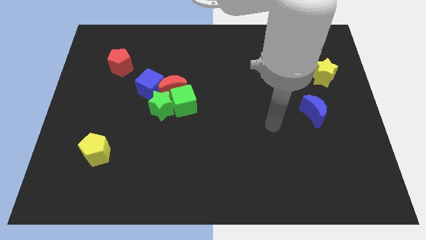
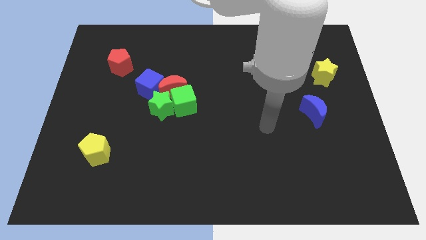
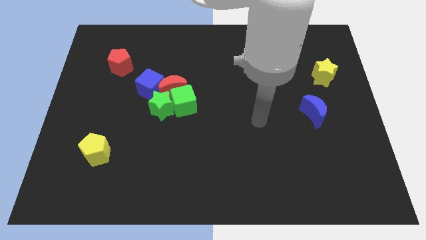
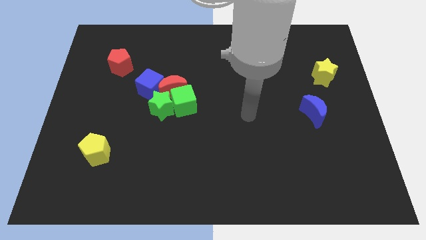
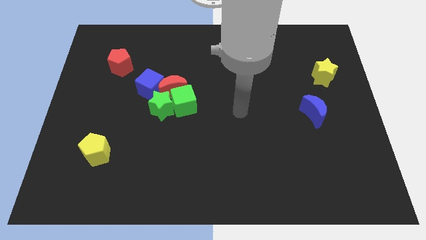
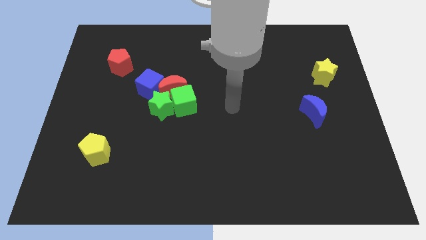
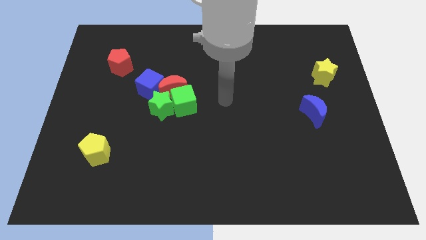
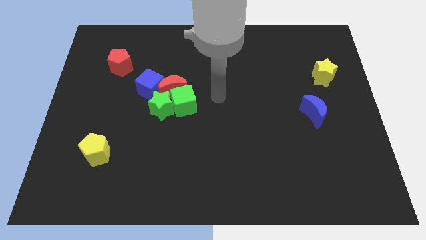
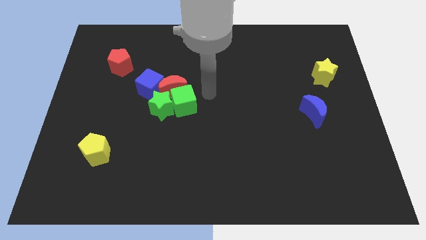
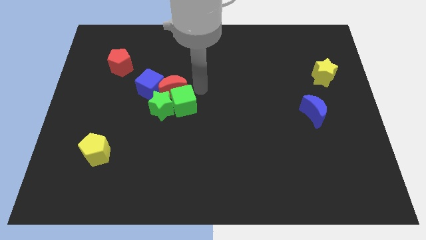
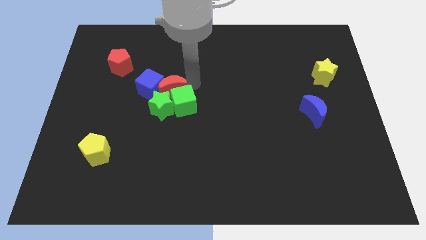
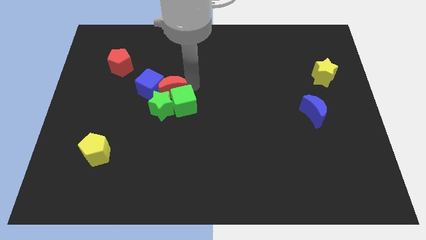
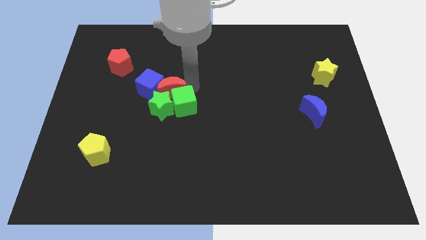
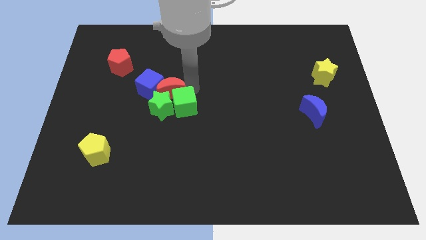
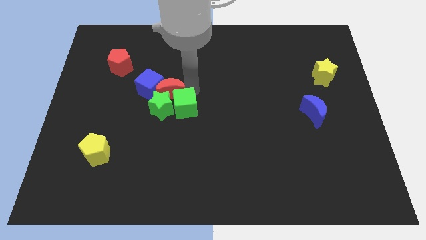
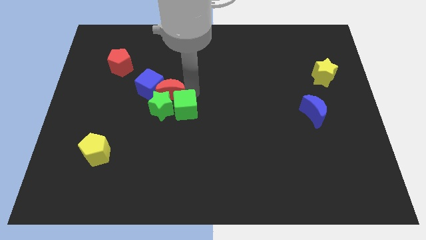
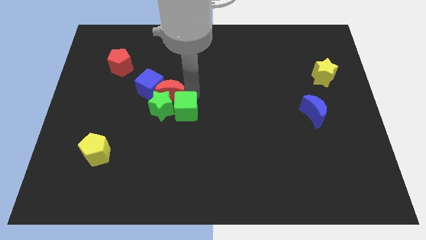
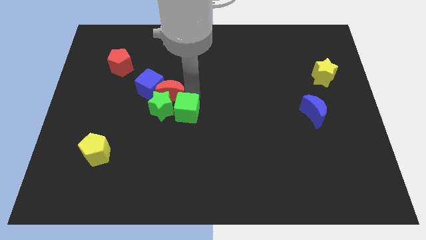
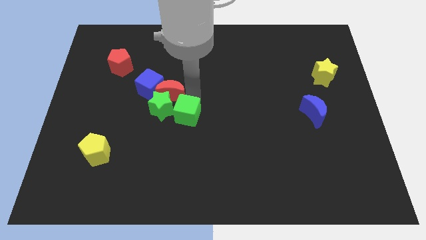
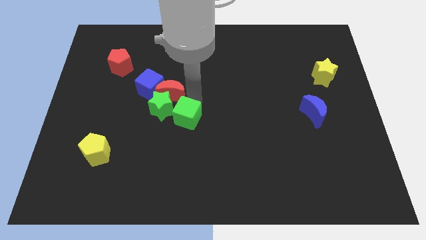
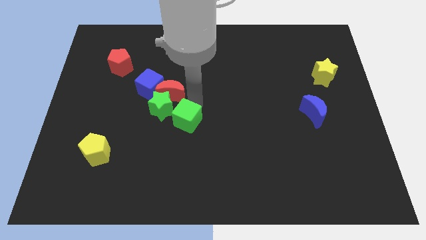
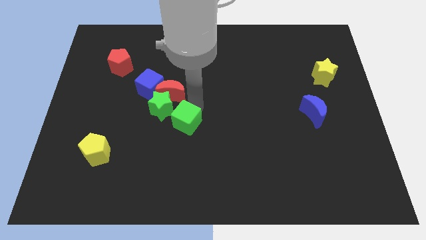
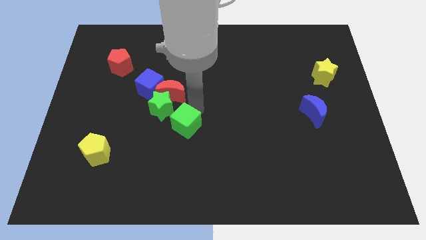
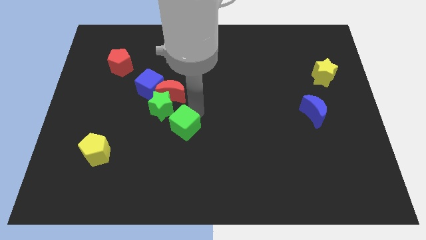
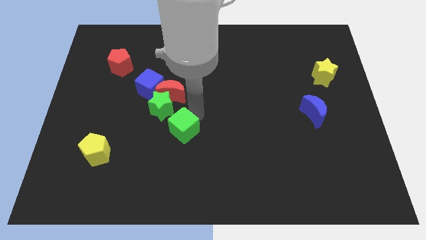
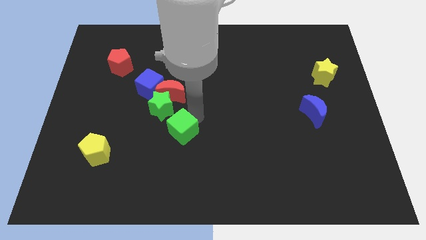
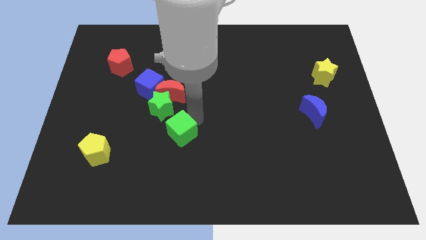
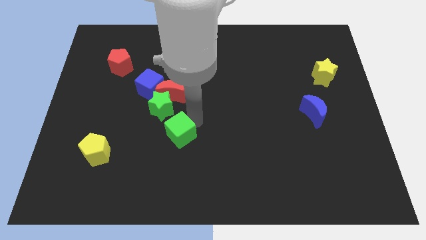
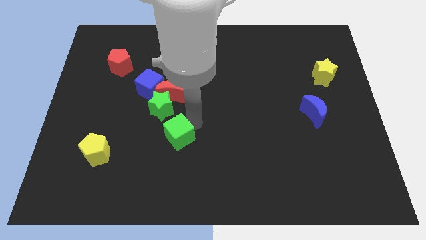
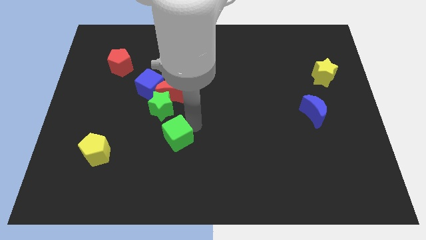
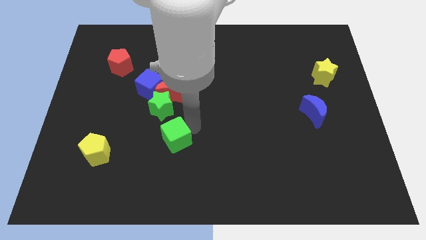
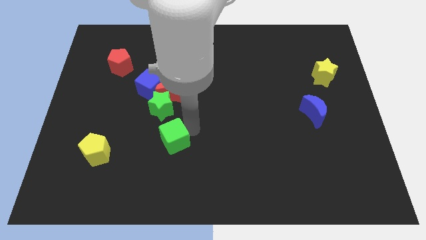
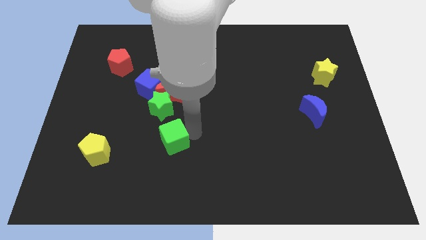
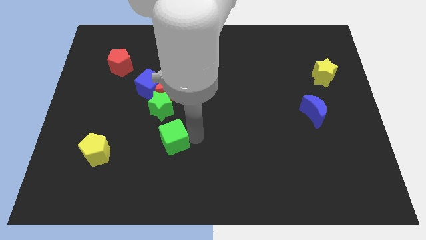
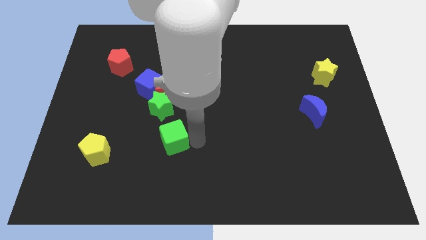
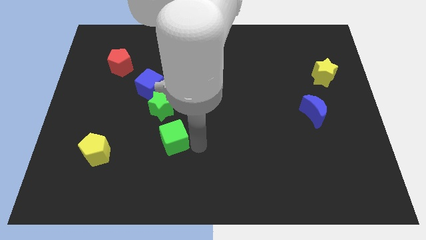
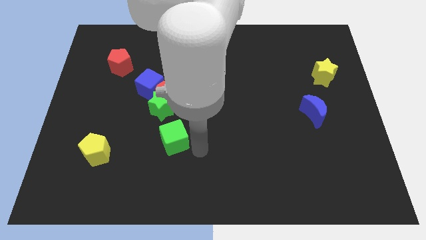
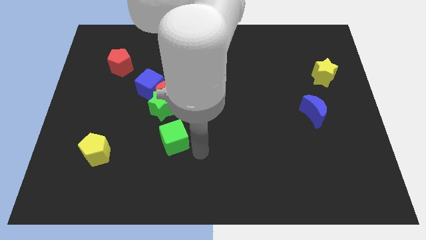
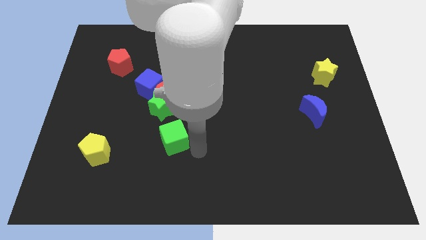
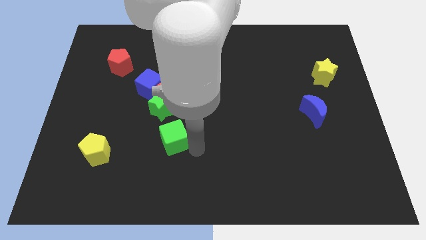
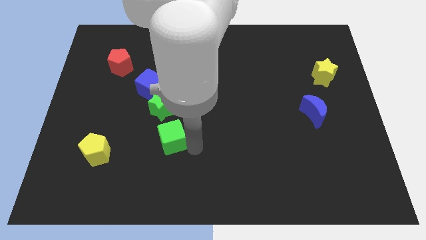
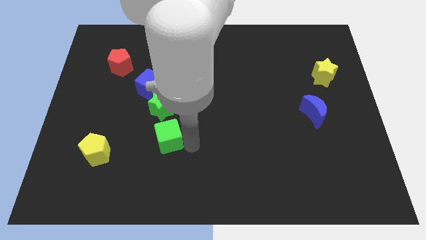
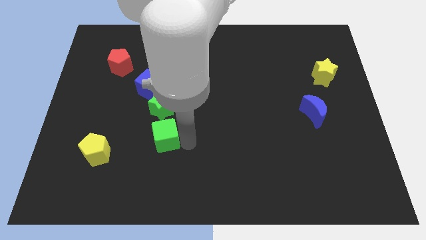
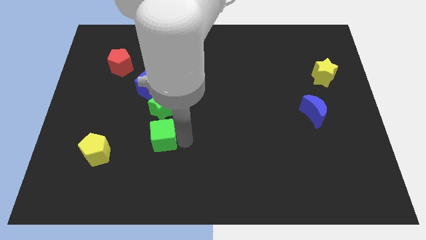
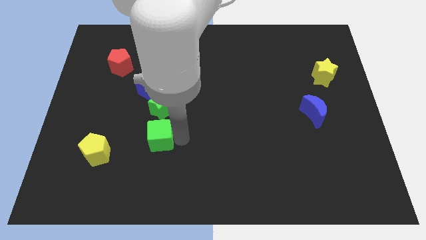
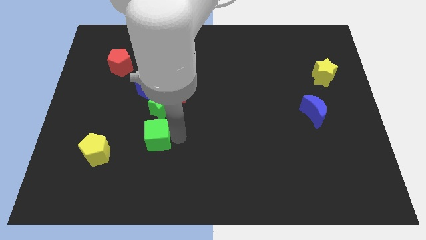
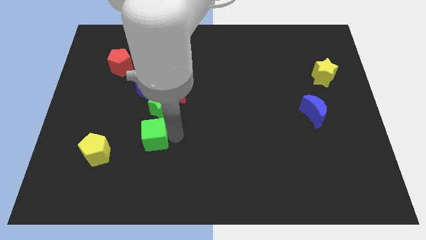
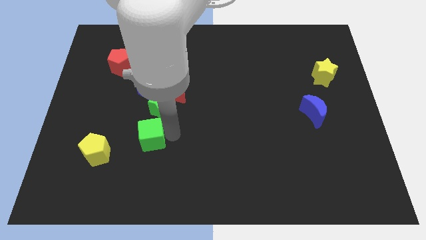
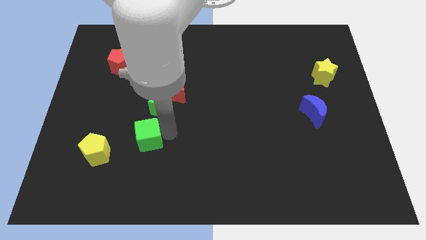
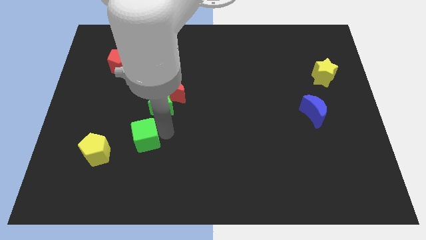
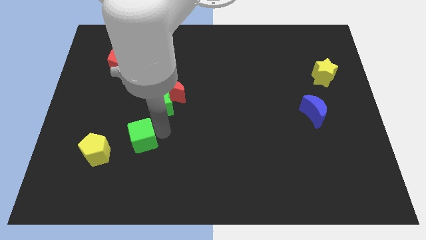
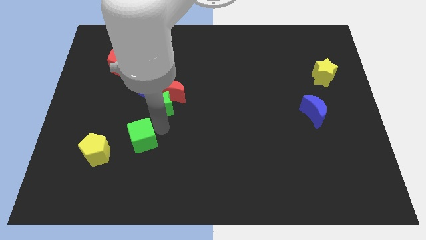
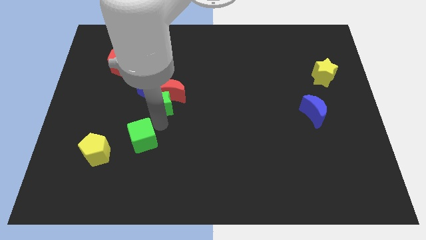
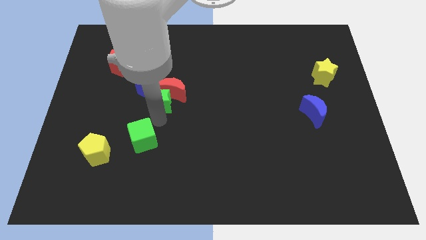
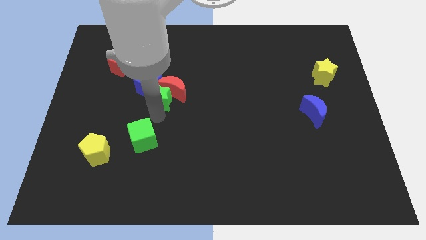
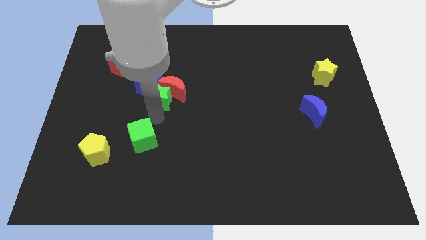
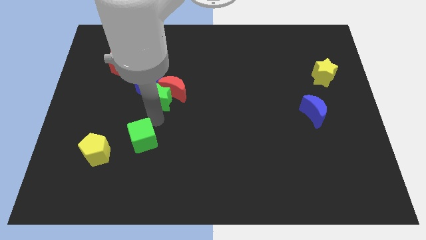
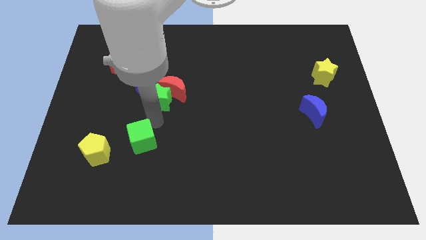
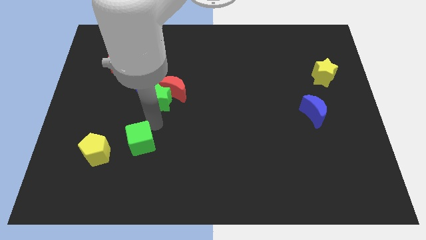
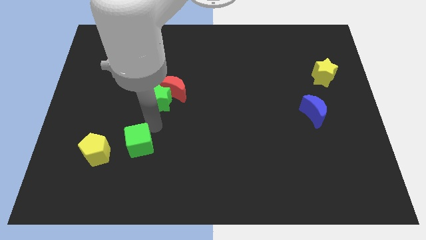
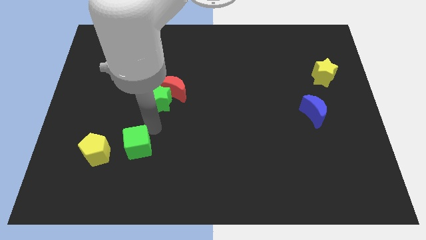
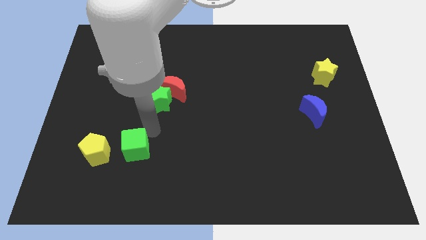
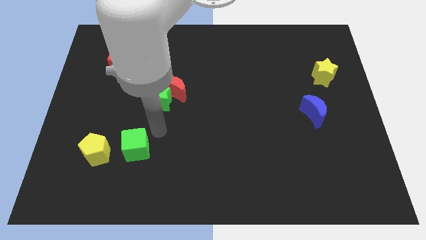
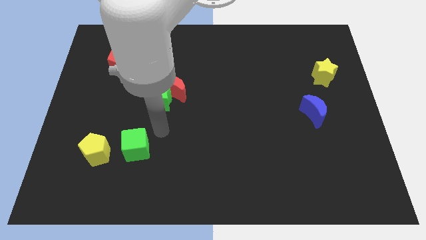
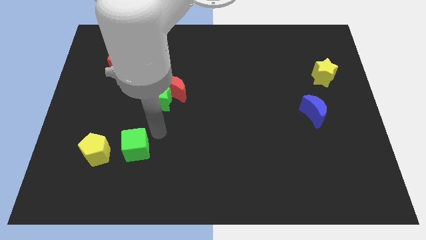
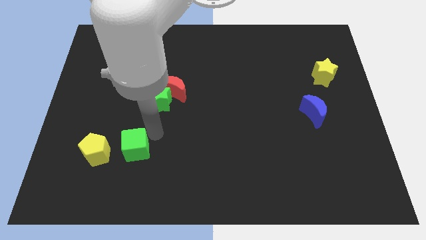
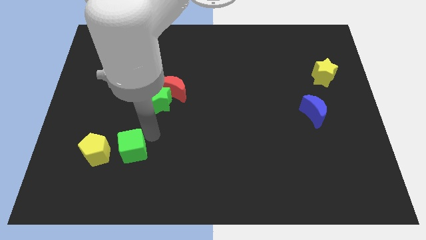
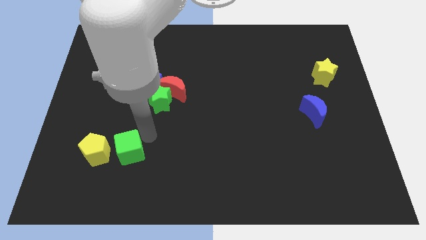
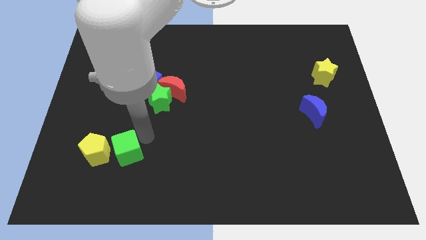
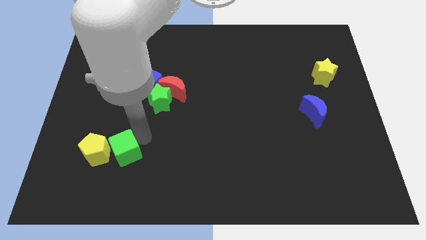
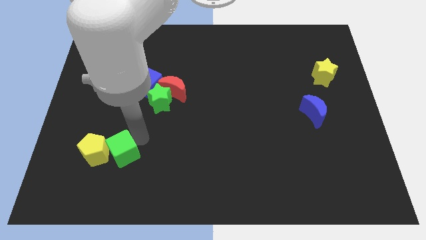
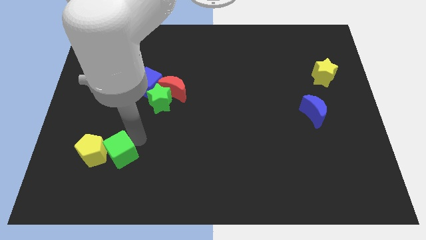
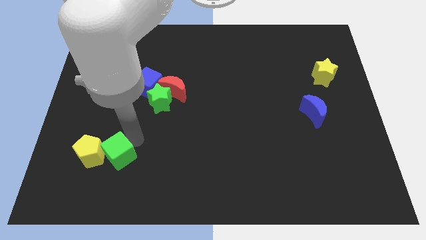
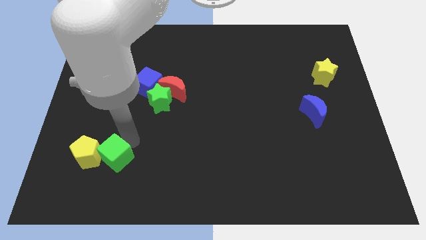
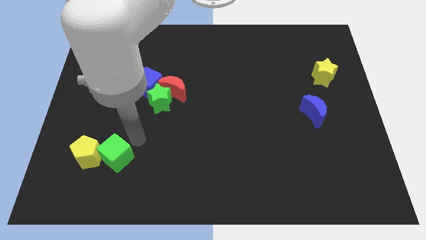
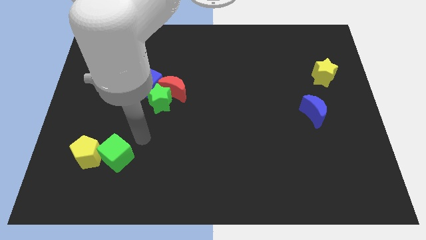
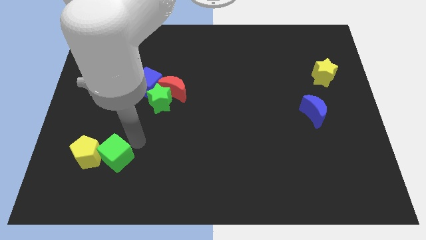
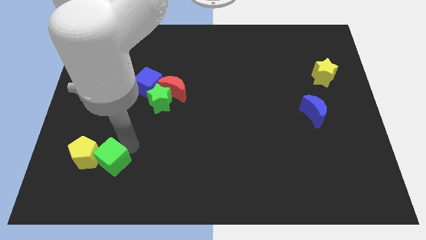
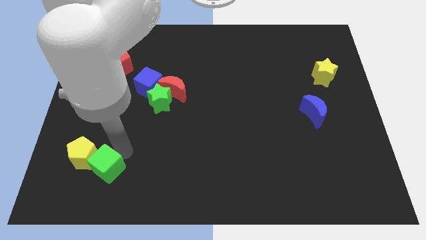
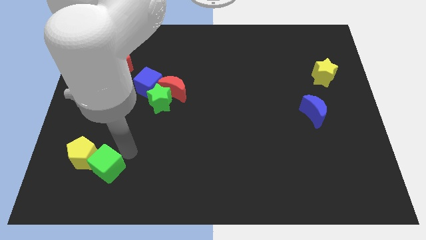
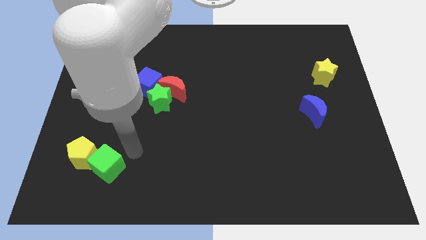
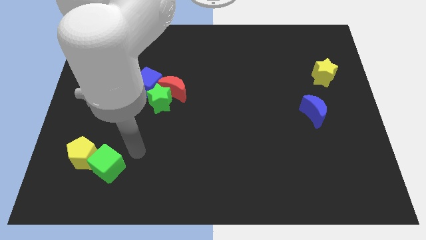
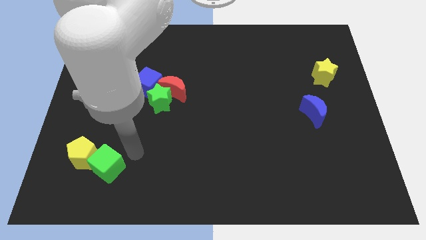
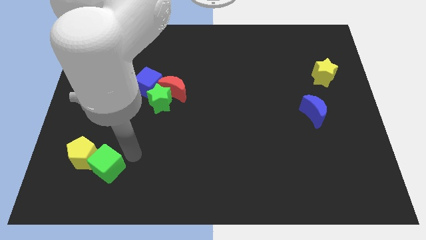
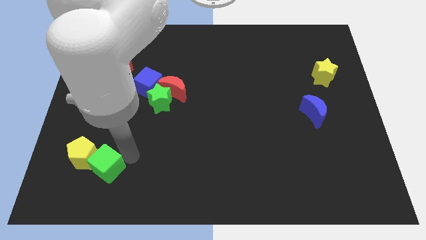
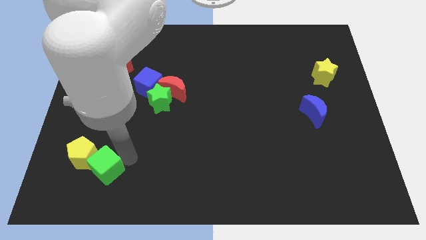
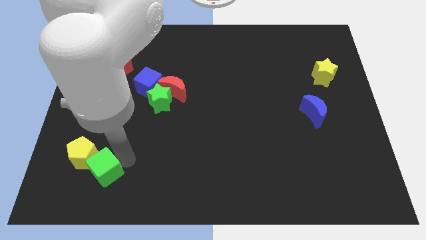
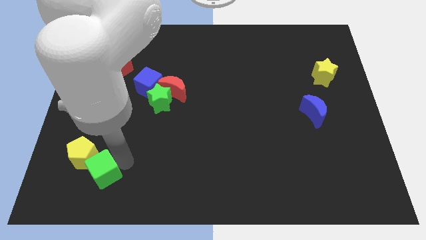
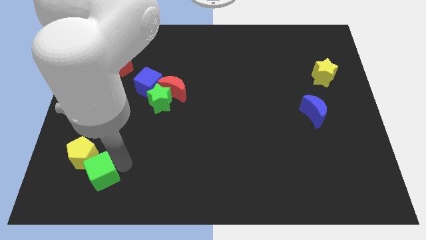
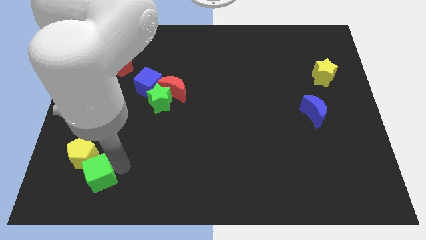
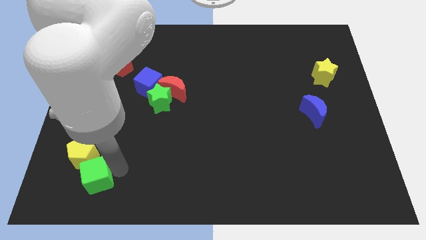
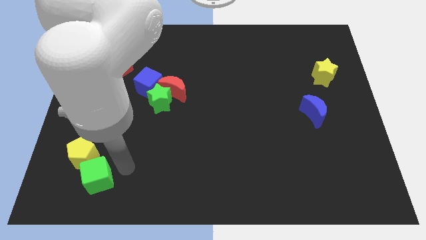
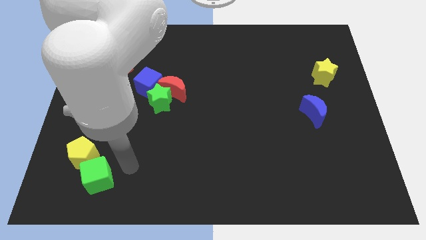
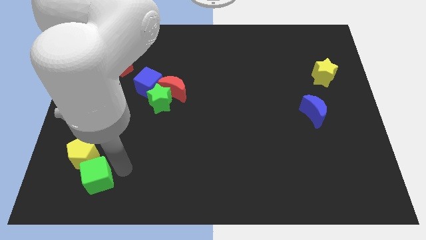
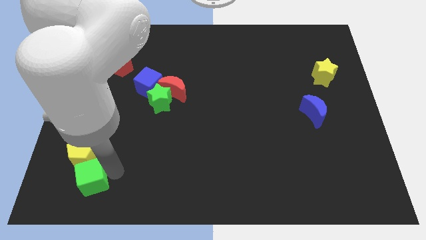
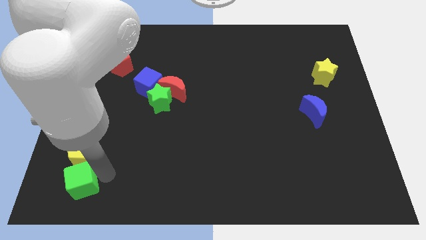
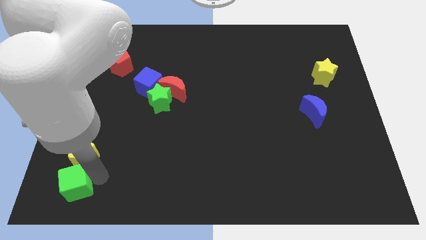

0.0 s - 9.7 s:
push the green cube to the bottom left corner
